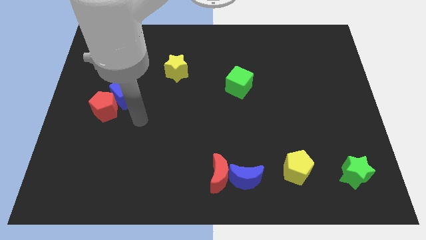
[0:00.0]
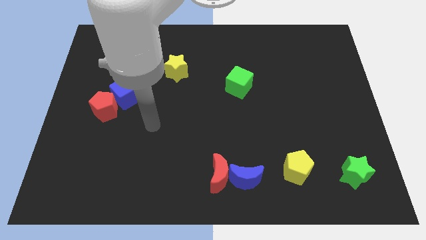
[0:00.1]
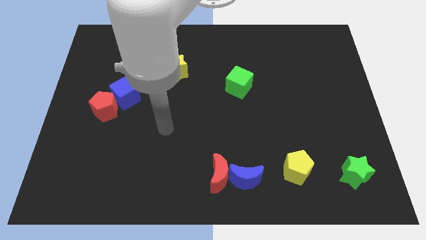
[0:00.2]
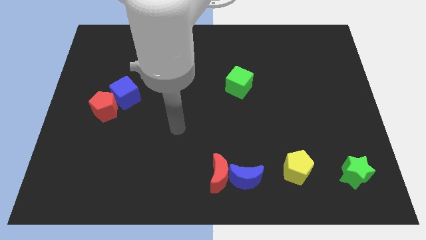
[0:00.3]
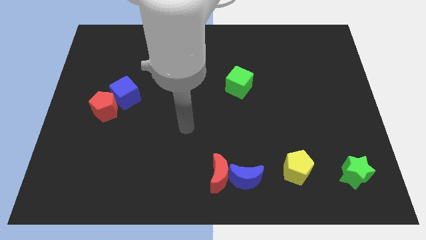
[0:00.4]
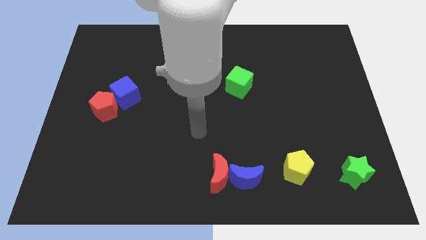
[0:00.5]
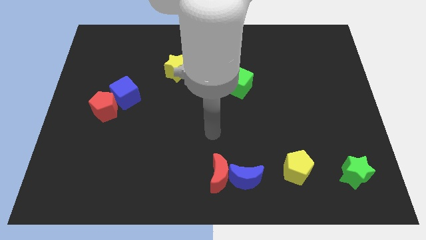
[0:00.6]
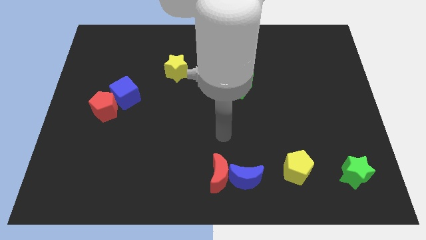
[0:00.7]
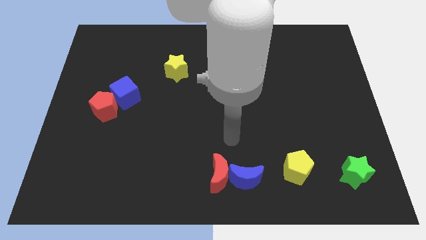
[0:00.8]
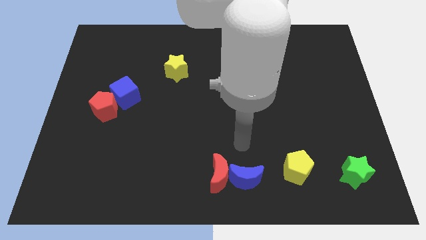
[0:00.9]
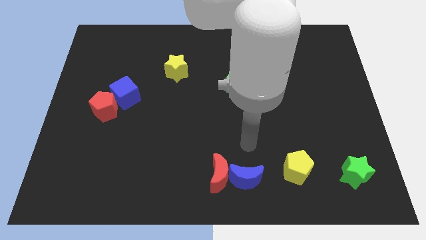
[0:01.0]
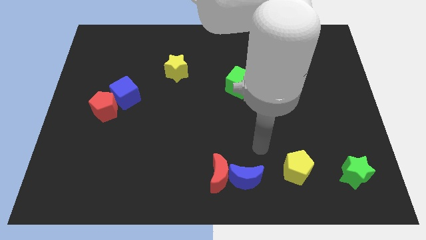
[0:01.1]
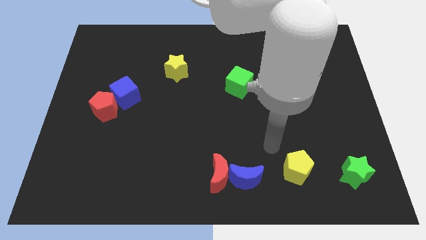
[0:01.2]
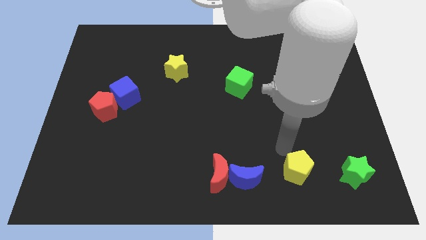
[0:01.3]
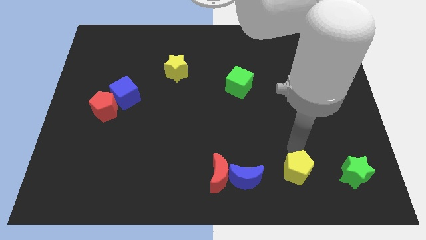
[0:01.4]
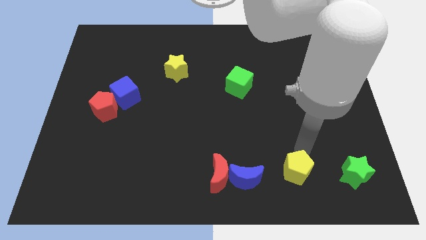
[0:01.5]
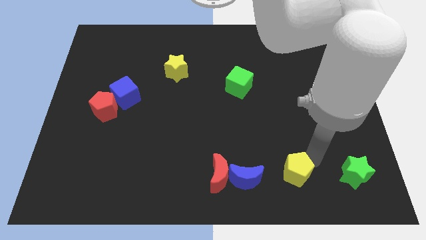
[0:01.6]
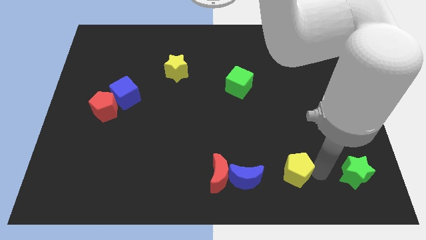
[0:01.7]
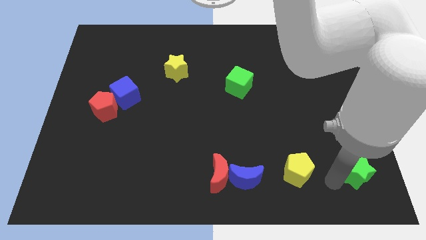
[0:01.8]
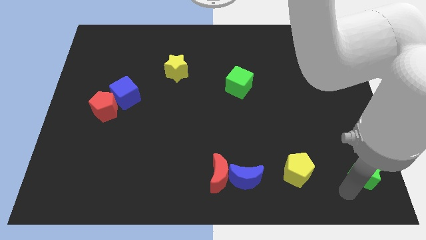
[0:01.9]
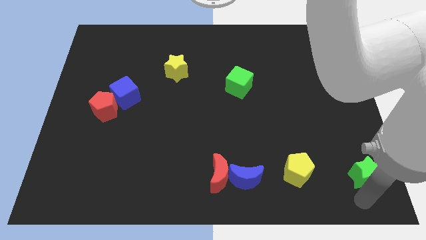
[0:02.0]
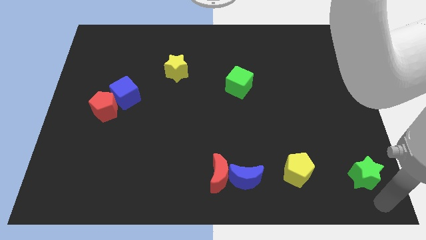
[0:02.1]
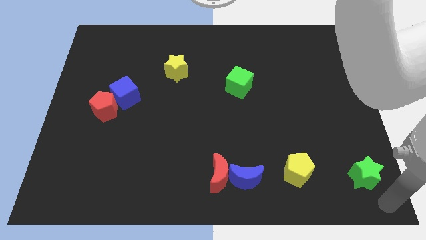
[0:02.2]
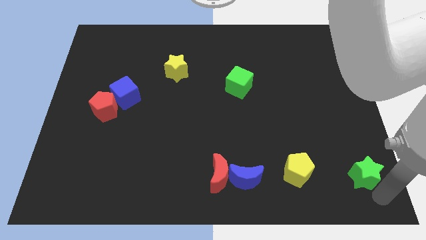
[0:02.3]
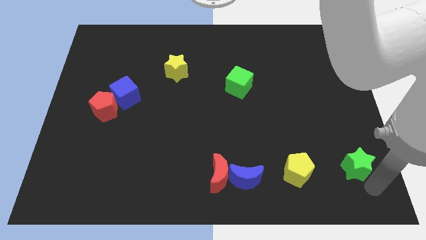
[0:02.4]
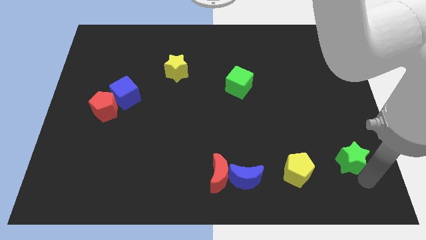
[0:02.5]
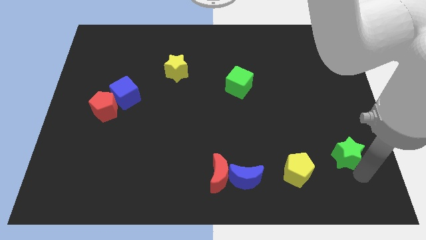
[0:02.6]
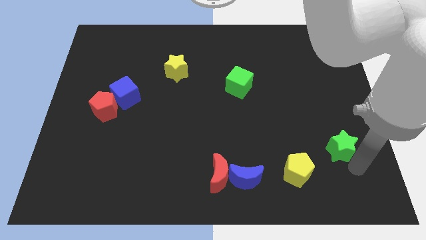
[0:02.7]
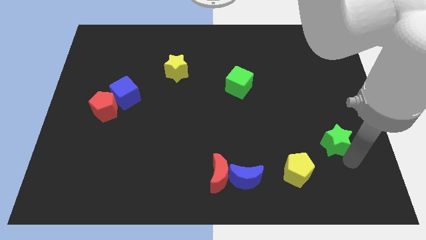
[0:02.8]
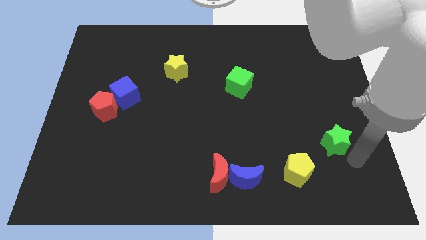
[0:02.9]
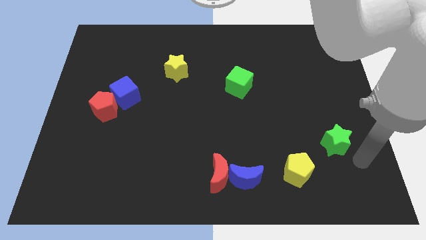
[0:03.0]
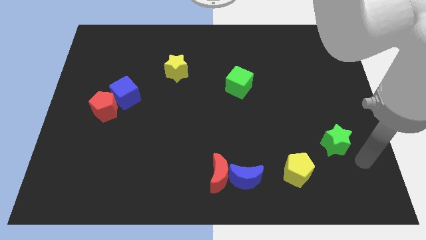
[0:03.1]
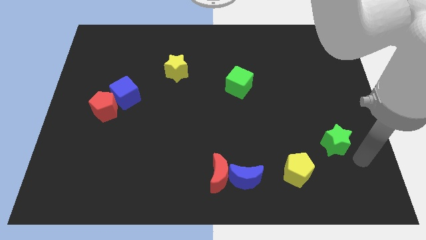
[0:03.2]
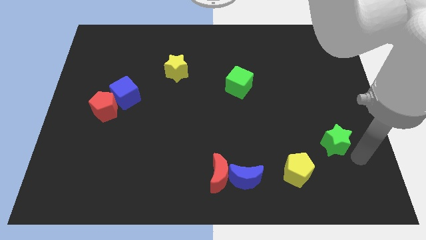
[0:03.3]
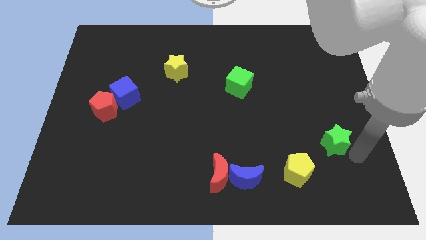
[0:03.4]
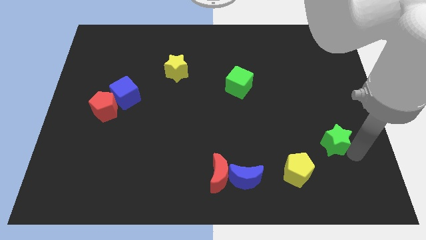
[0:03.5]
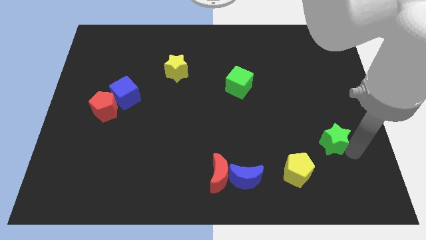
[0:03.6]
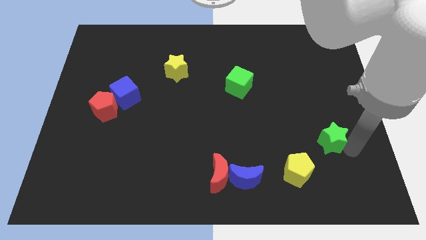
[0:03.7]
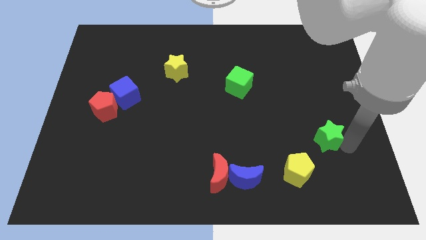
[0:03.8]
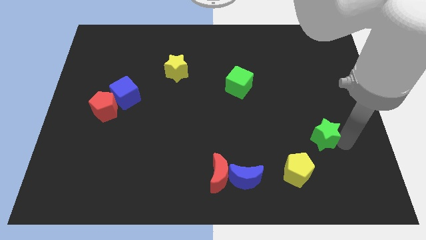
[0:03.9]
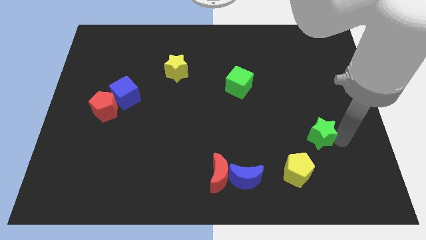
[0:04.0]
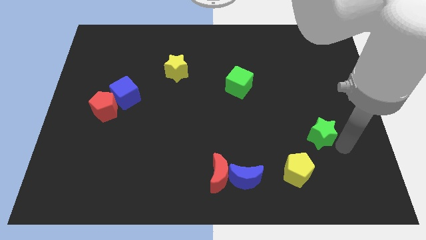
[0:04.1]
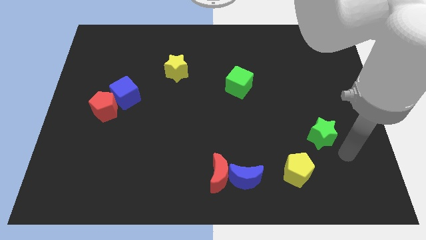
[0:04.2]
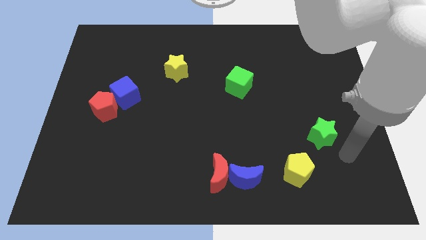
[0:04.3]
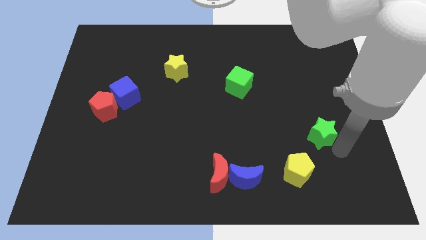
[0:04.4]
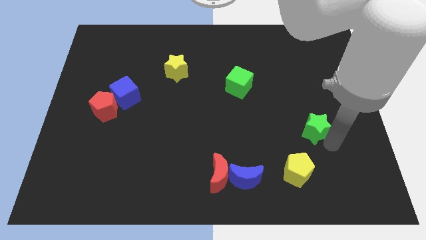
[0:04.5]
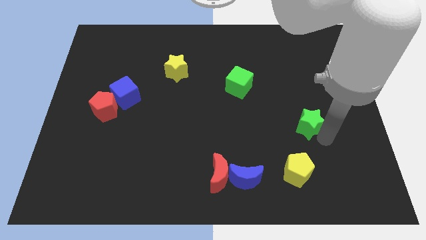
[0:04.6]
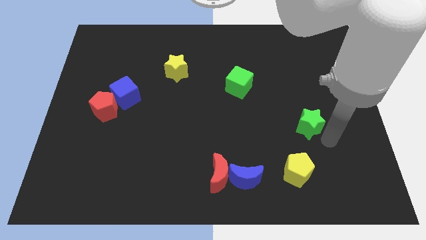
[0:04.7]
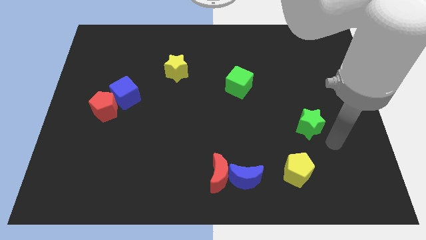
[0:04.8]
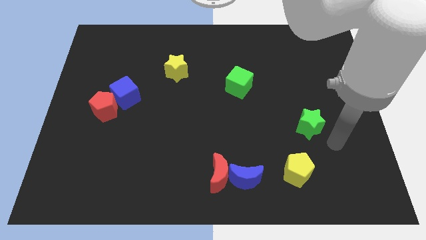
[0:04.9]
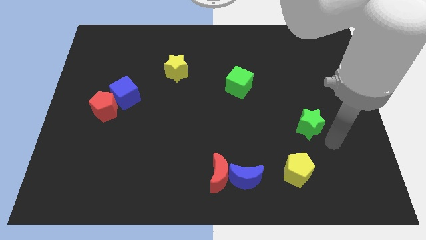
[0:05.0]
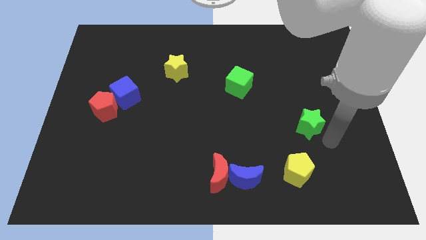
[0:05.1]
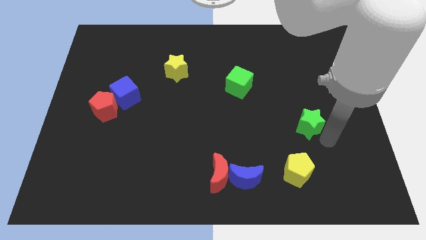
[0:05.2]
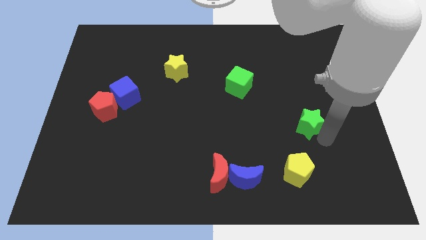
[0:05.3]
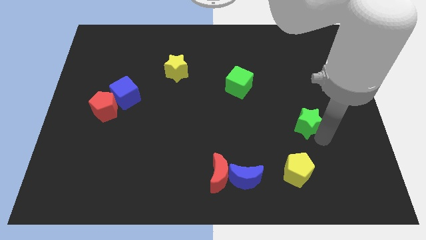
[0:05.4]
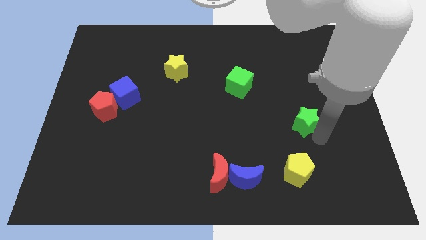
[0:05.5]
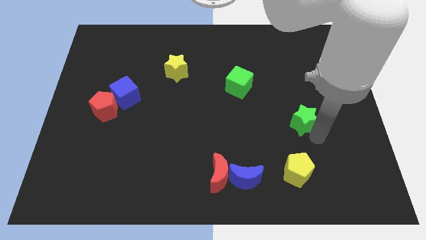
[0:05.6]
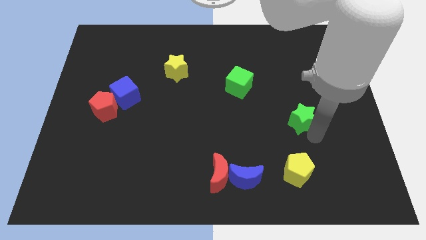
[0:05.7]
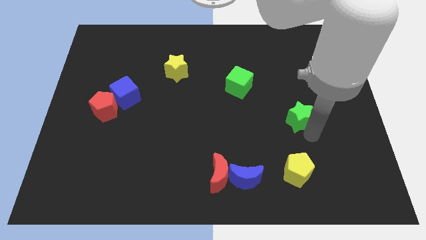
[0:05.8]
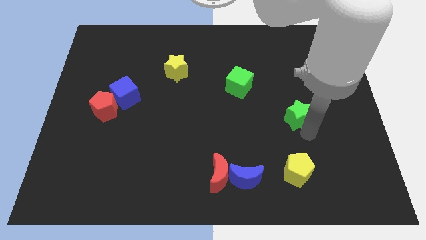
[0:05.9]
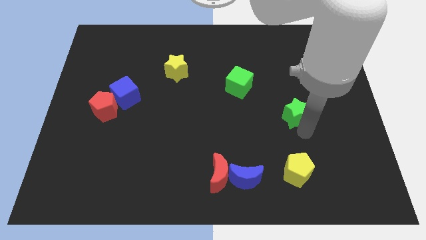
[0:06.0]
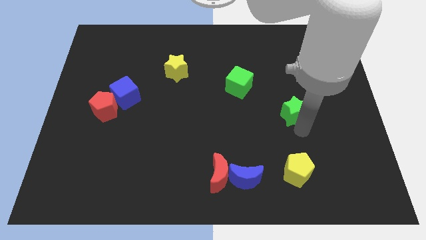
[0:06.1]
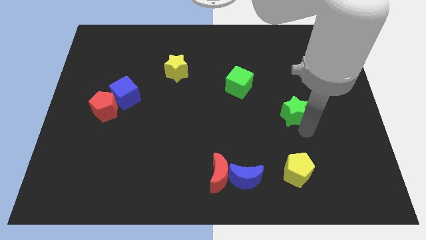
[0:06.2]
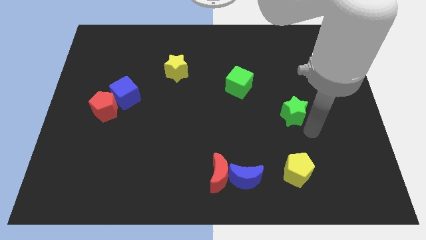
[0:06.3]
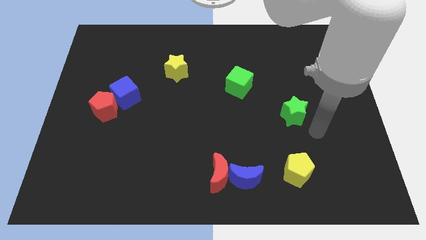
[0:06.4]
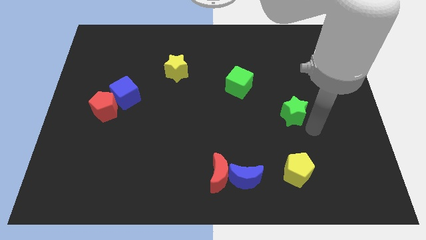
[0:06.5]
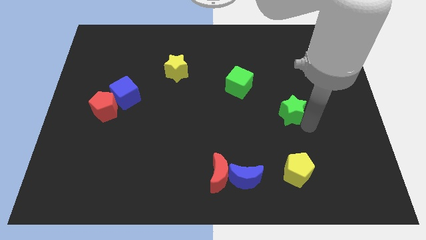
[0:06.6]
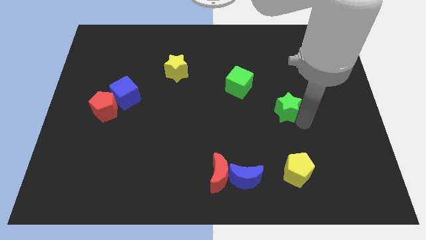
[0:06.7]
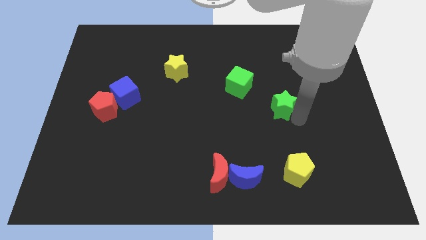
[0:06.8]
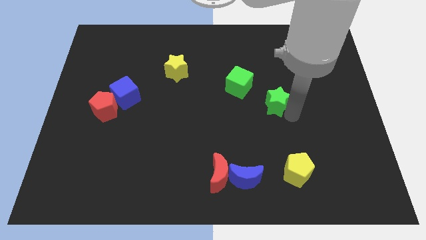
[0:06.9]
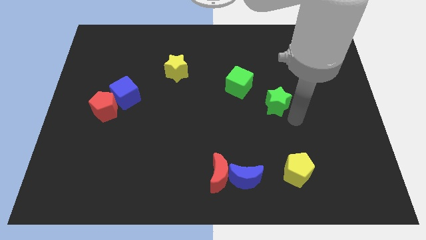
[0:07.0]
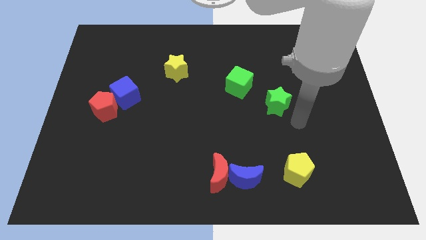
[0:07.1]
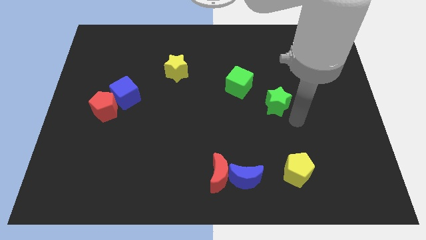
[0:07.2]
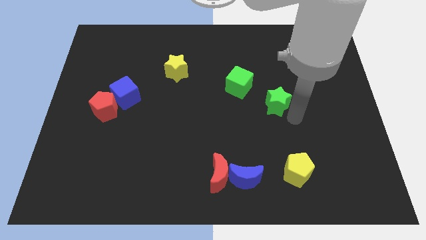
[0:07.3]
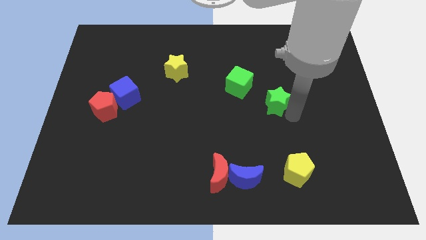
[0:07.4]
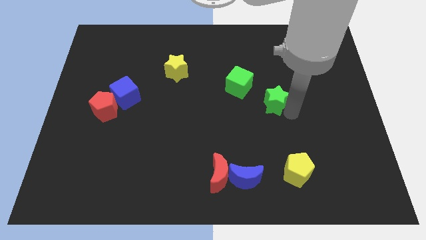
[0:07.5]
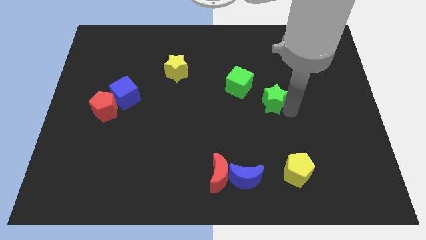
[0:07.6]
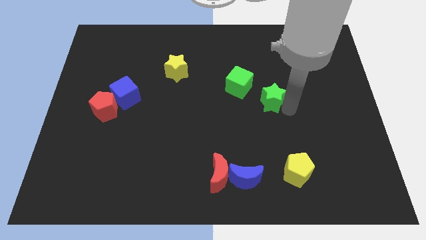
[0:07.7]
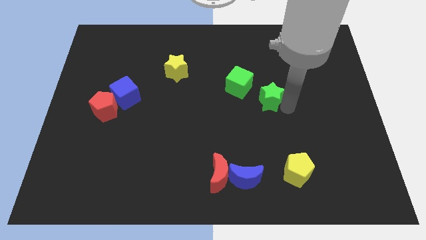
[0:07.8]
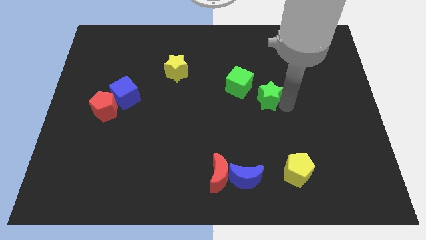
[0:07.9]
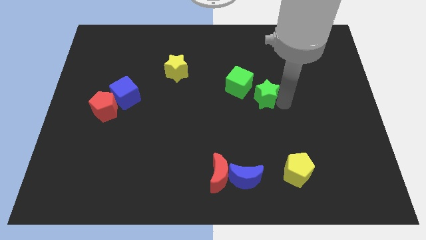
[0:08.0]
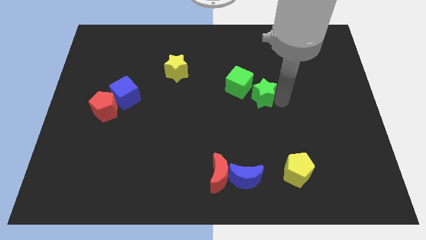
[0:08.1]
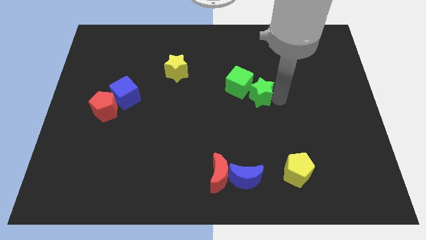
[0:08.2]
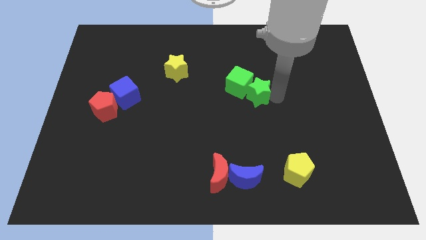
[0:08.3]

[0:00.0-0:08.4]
move the green star to the green cube

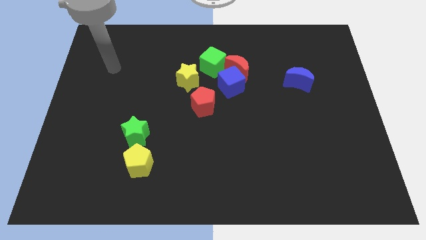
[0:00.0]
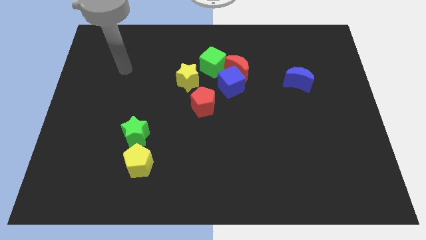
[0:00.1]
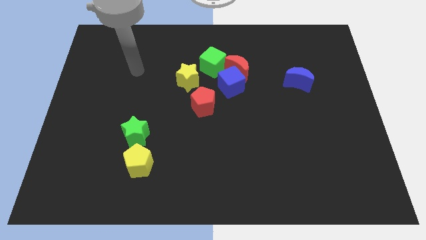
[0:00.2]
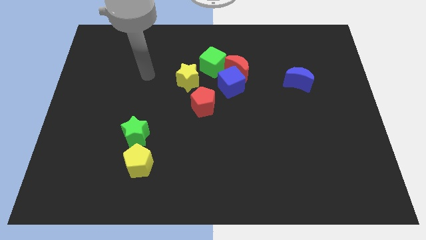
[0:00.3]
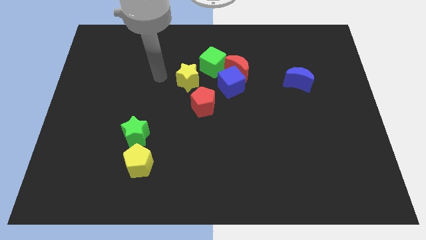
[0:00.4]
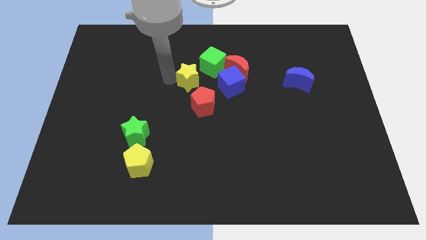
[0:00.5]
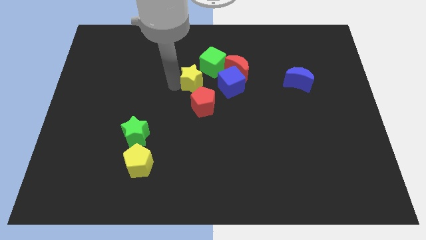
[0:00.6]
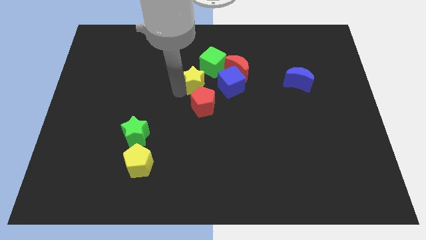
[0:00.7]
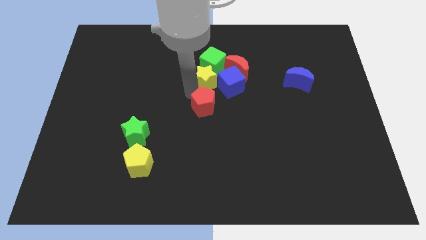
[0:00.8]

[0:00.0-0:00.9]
move the blue cube next to the yellow star
